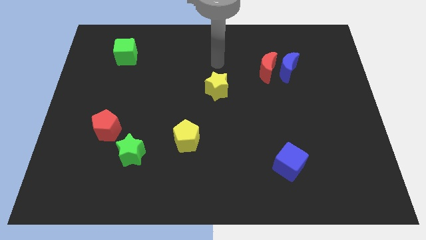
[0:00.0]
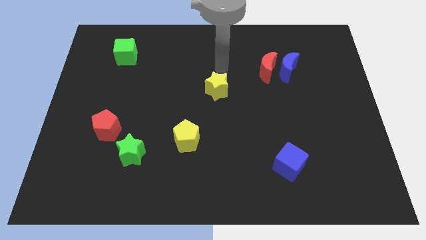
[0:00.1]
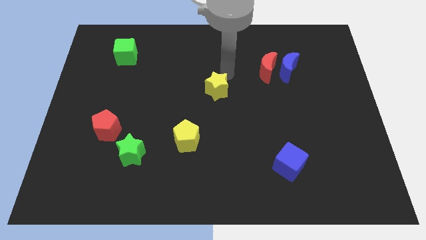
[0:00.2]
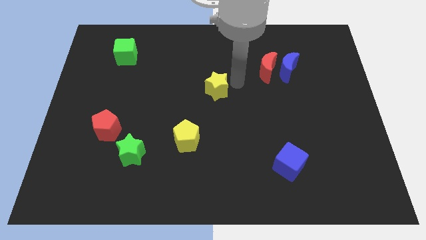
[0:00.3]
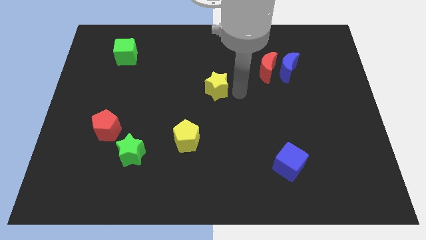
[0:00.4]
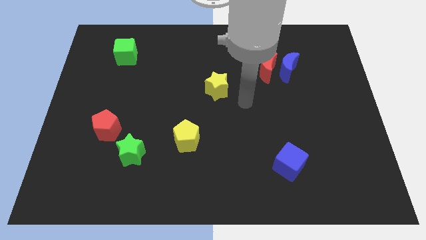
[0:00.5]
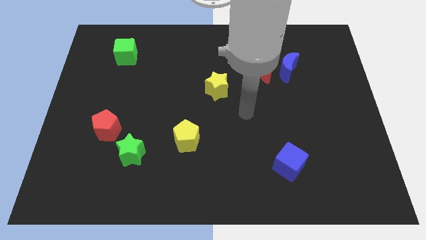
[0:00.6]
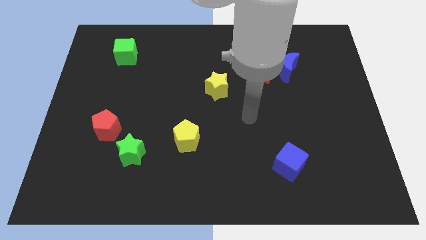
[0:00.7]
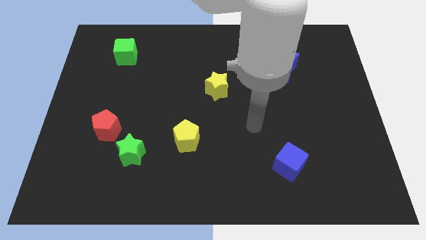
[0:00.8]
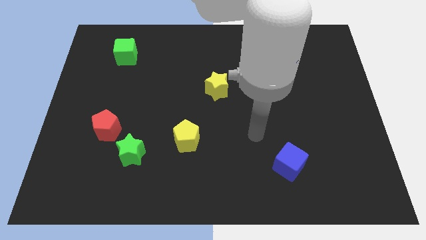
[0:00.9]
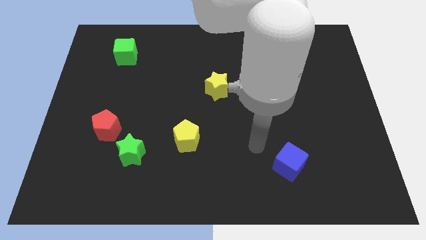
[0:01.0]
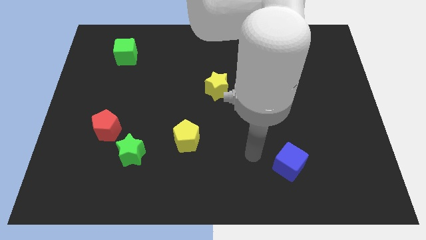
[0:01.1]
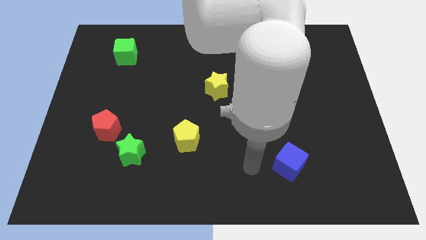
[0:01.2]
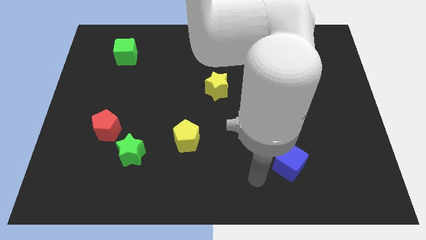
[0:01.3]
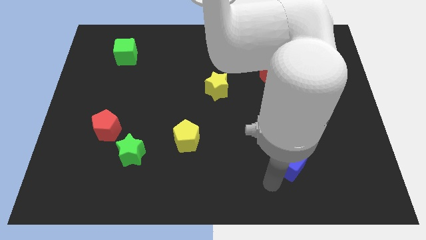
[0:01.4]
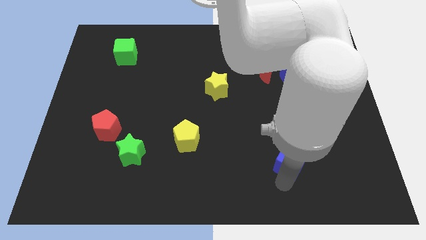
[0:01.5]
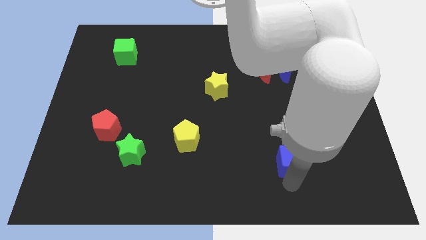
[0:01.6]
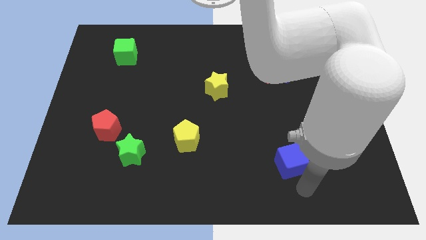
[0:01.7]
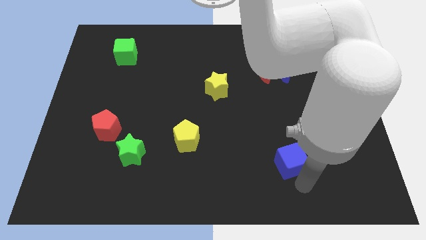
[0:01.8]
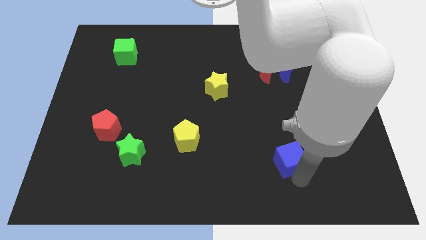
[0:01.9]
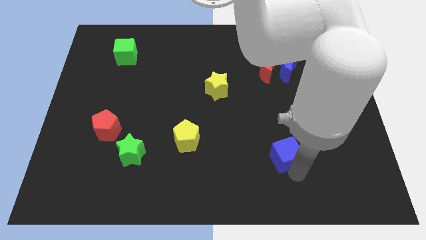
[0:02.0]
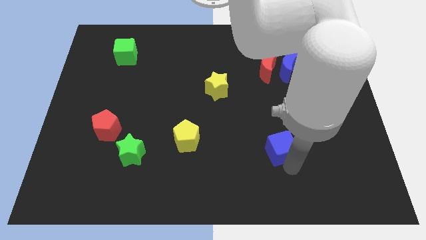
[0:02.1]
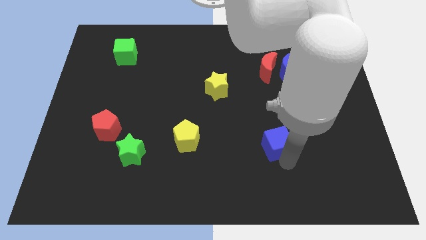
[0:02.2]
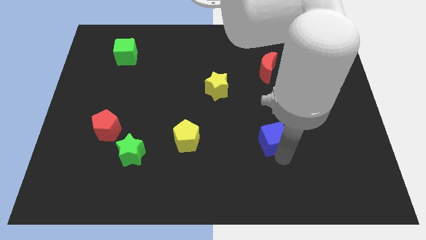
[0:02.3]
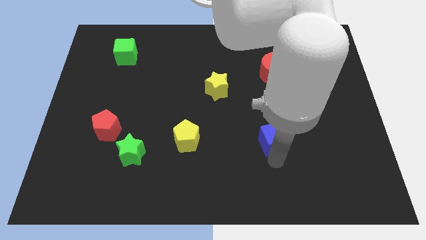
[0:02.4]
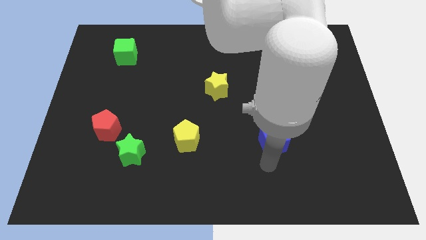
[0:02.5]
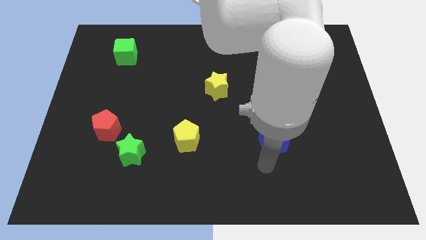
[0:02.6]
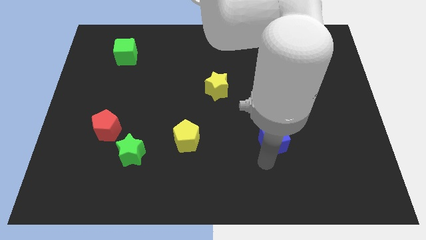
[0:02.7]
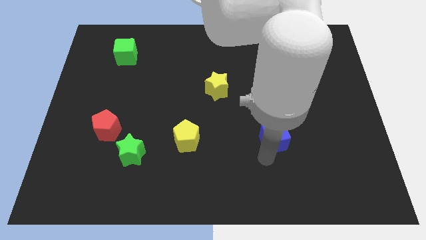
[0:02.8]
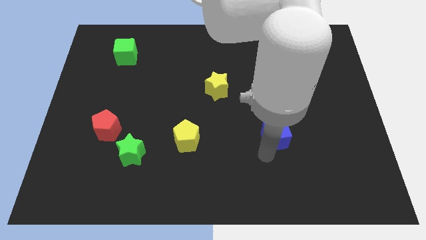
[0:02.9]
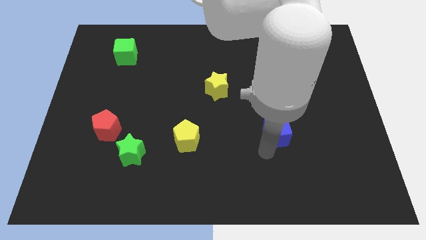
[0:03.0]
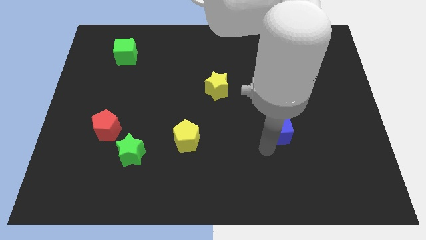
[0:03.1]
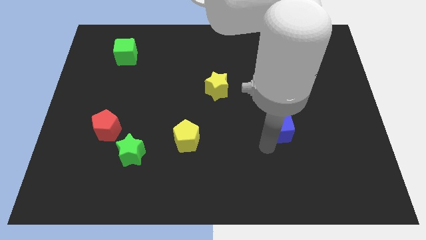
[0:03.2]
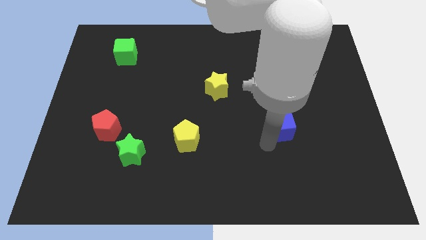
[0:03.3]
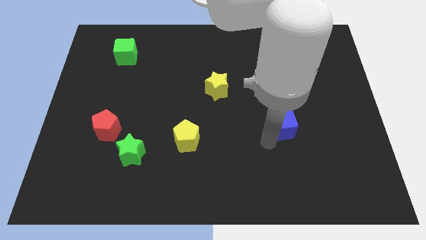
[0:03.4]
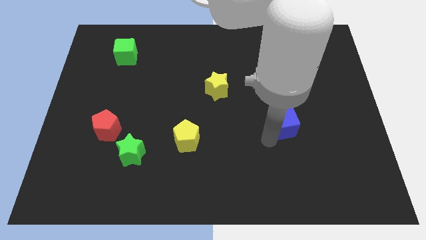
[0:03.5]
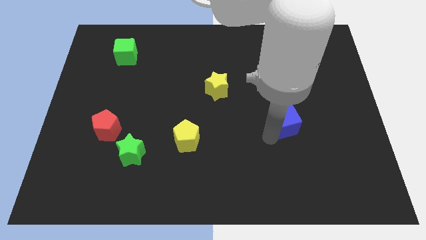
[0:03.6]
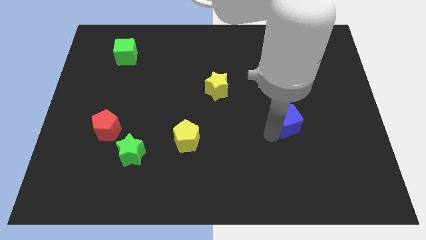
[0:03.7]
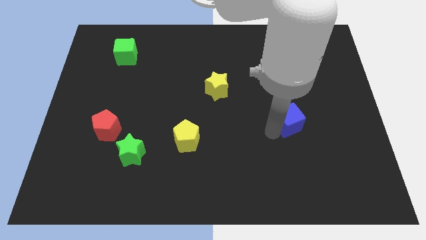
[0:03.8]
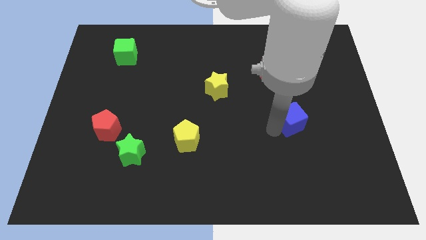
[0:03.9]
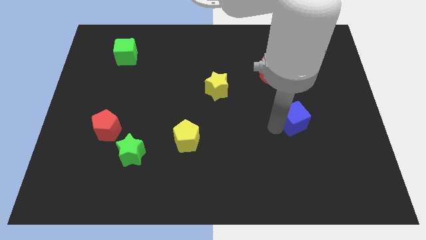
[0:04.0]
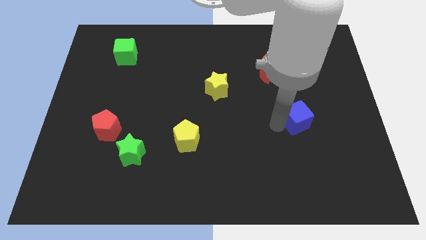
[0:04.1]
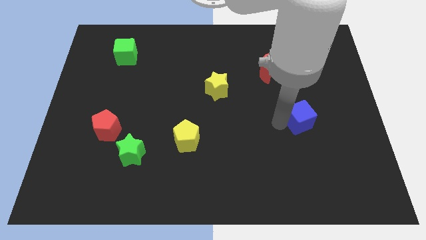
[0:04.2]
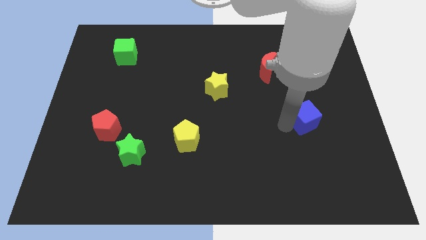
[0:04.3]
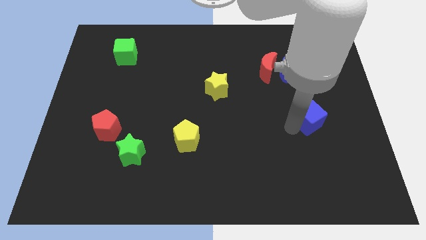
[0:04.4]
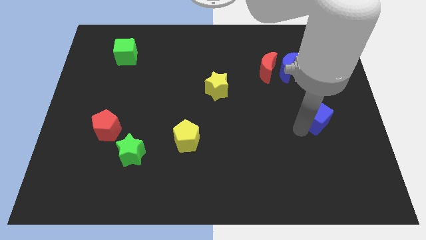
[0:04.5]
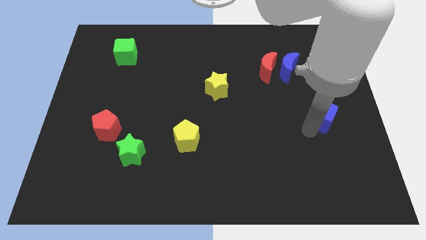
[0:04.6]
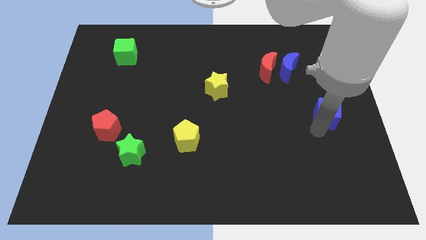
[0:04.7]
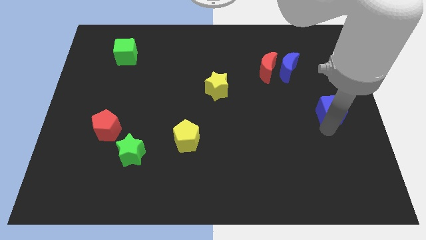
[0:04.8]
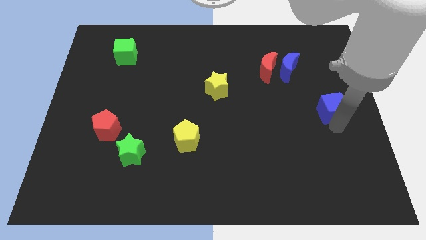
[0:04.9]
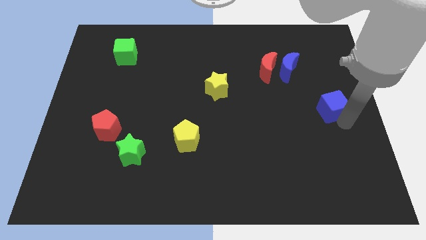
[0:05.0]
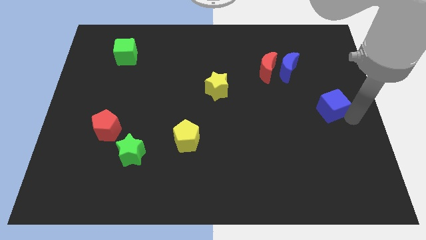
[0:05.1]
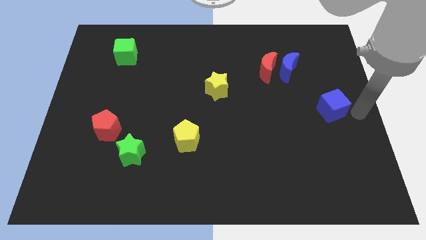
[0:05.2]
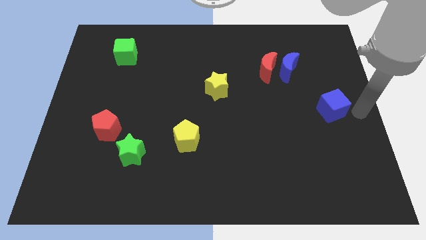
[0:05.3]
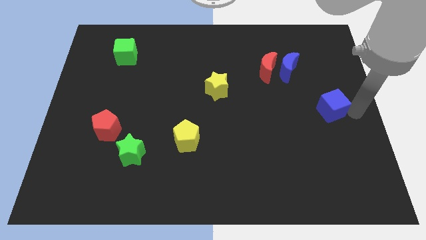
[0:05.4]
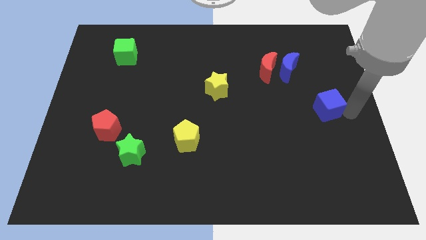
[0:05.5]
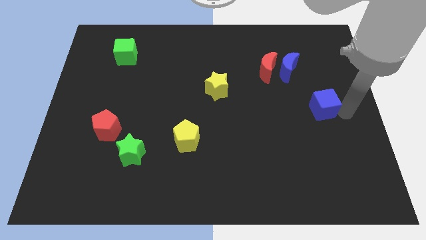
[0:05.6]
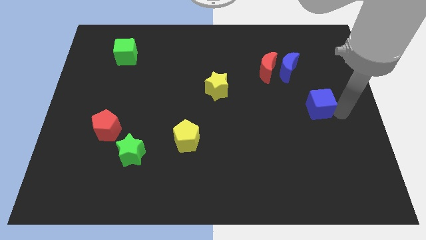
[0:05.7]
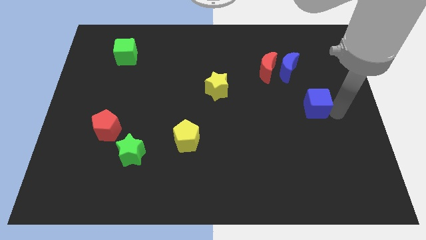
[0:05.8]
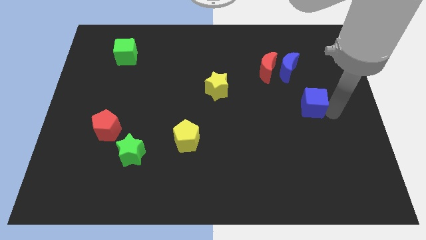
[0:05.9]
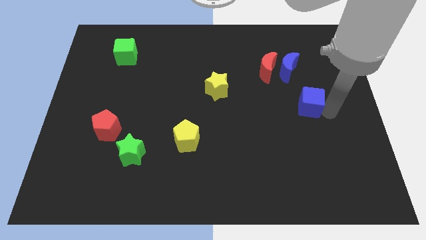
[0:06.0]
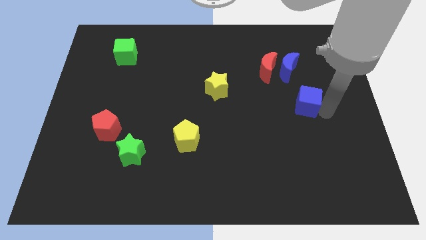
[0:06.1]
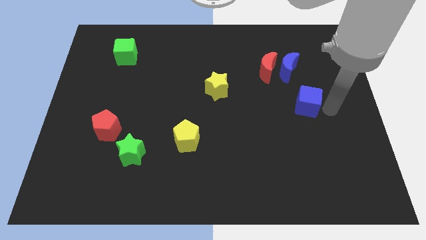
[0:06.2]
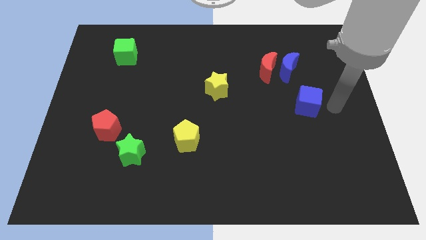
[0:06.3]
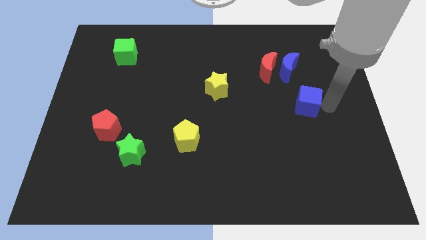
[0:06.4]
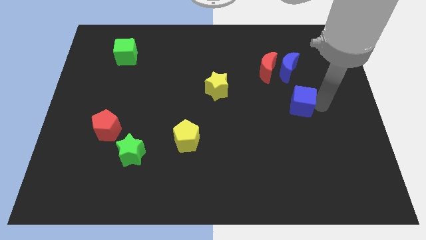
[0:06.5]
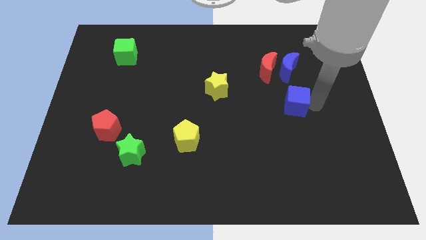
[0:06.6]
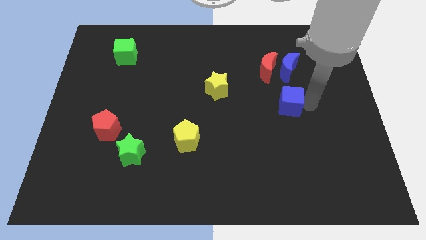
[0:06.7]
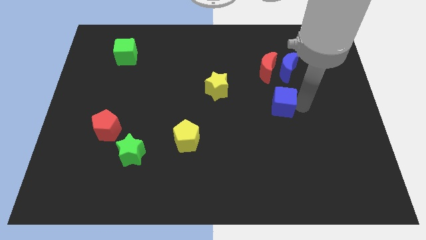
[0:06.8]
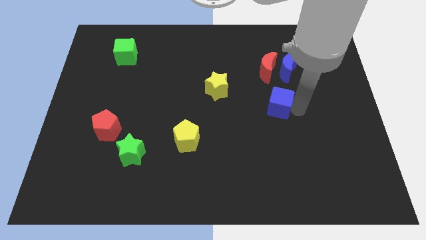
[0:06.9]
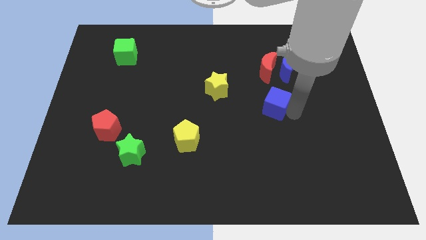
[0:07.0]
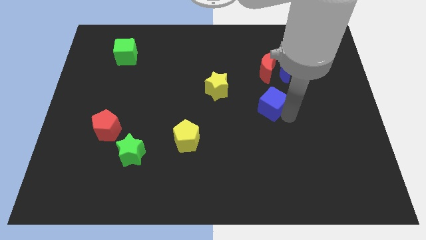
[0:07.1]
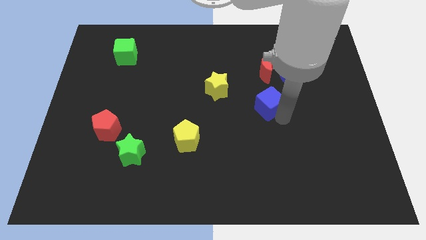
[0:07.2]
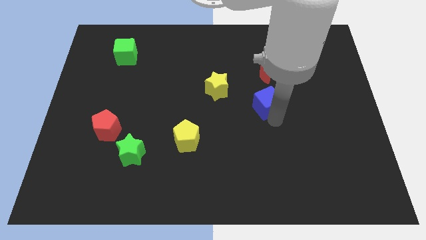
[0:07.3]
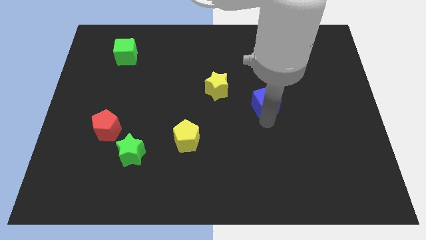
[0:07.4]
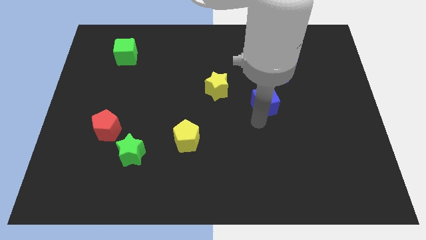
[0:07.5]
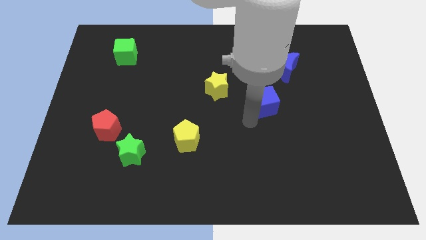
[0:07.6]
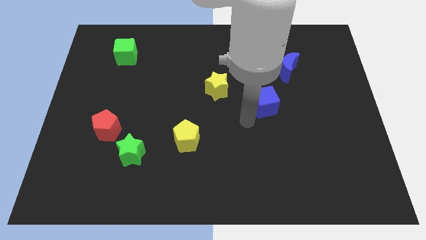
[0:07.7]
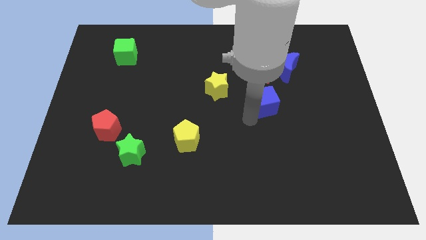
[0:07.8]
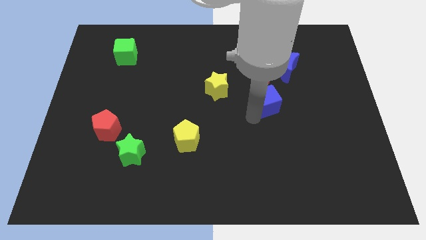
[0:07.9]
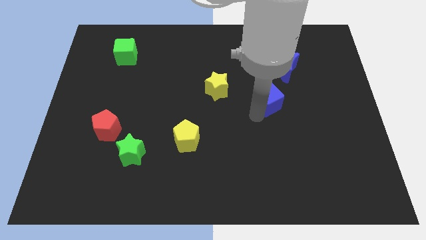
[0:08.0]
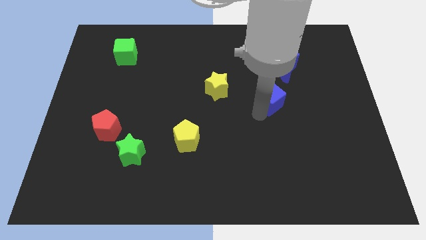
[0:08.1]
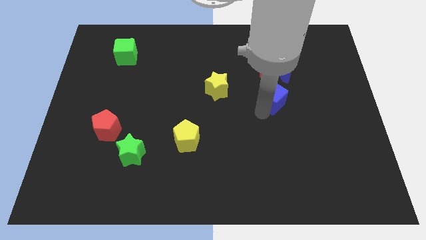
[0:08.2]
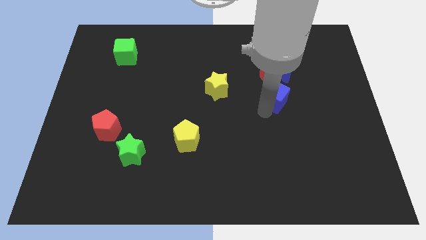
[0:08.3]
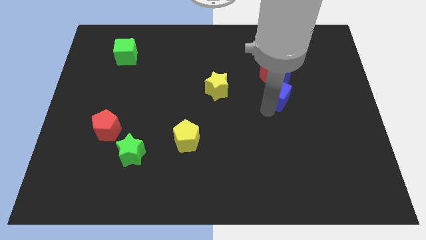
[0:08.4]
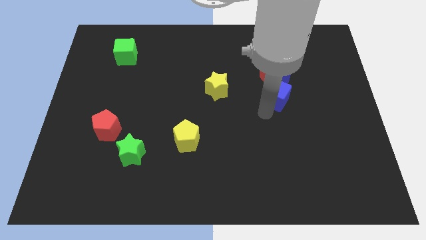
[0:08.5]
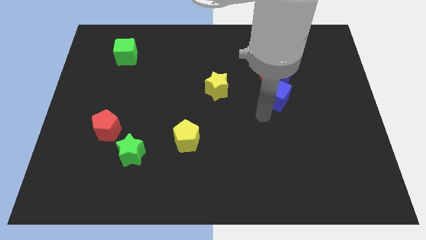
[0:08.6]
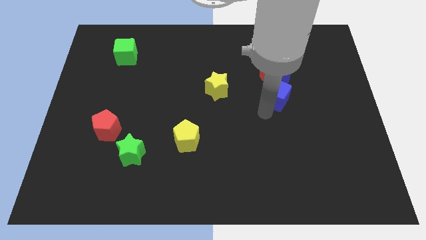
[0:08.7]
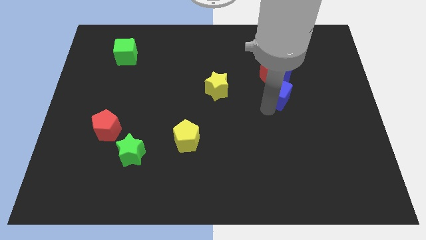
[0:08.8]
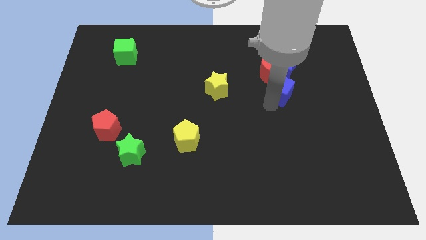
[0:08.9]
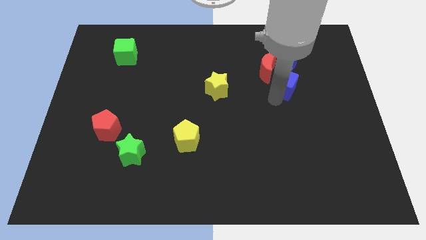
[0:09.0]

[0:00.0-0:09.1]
slide the blue cube next to the blue moon
